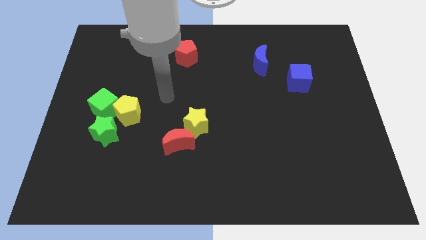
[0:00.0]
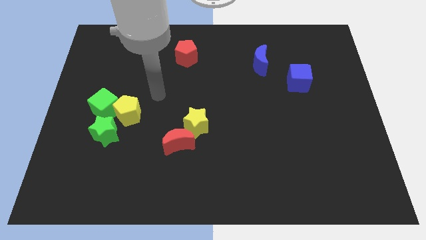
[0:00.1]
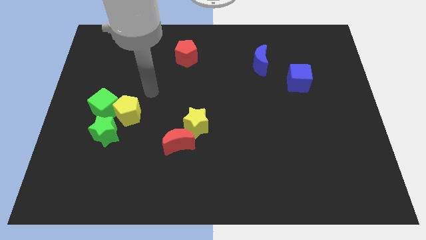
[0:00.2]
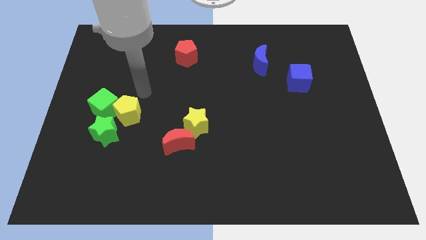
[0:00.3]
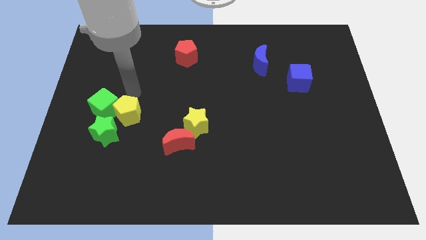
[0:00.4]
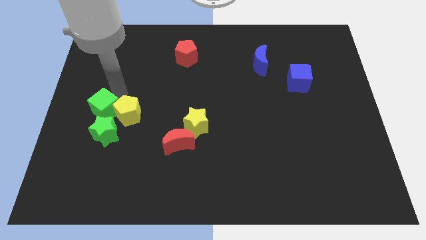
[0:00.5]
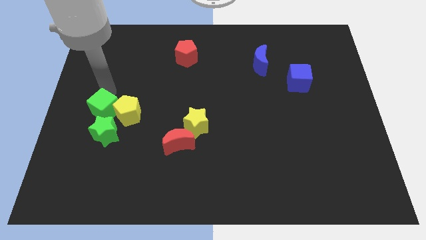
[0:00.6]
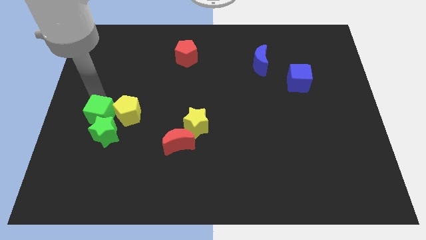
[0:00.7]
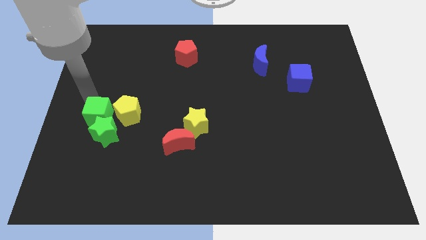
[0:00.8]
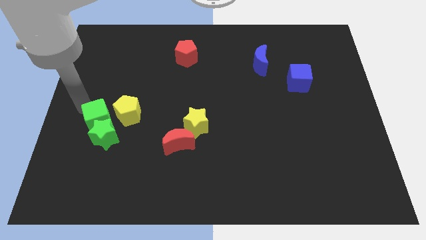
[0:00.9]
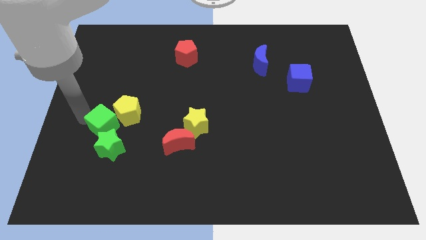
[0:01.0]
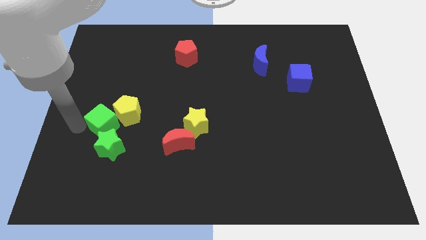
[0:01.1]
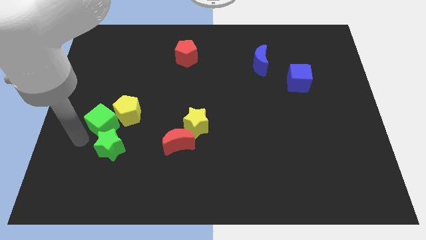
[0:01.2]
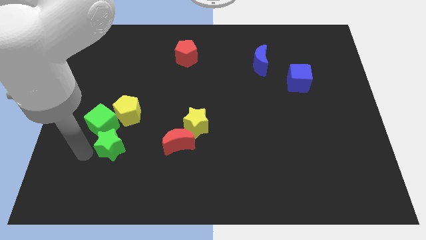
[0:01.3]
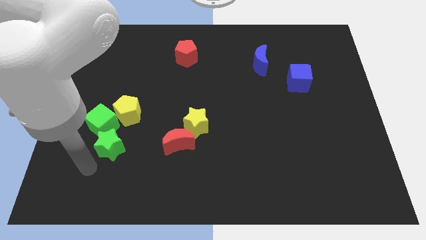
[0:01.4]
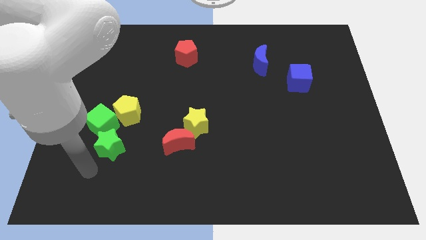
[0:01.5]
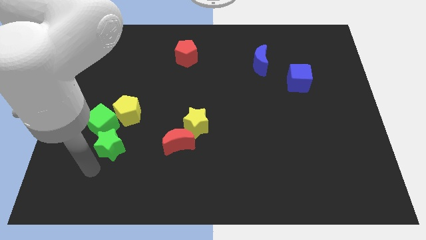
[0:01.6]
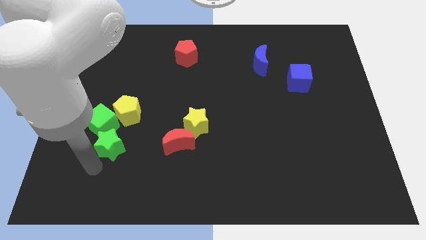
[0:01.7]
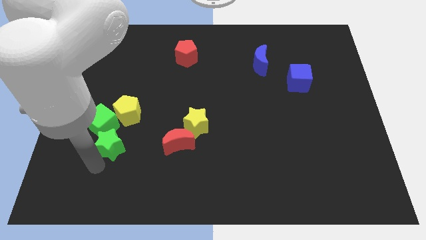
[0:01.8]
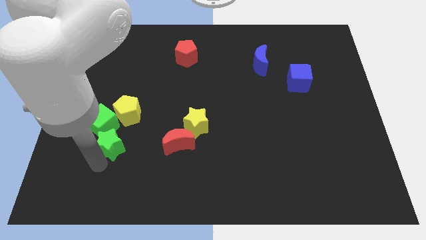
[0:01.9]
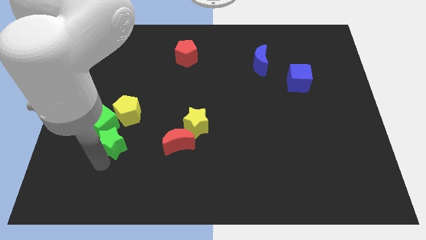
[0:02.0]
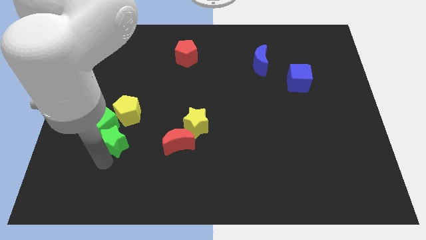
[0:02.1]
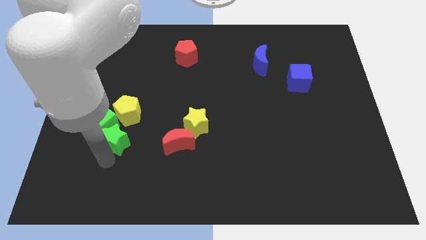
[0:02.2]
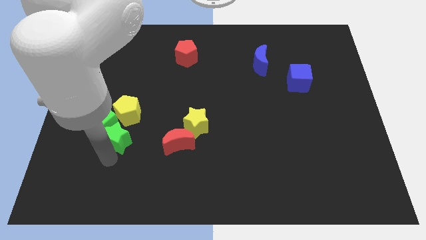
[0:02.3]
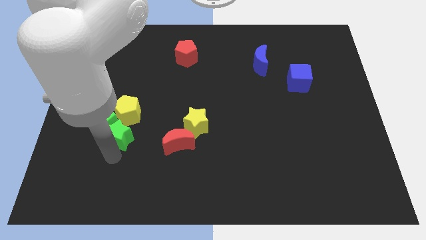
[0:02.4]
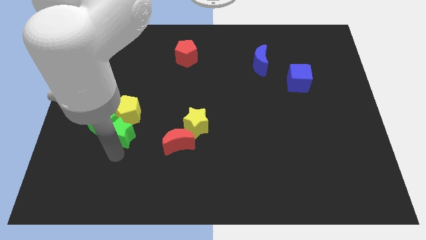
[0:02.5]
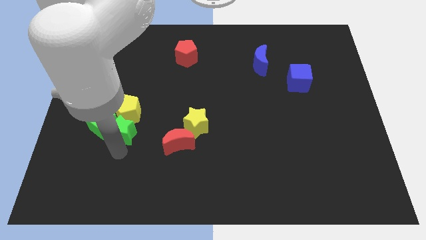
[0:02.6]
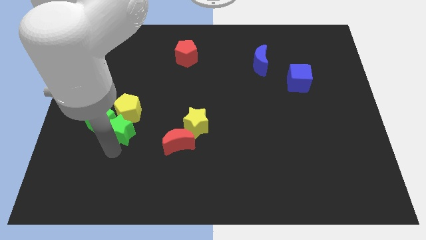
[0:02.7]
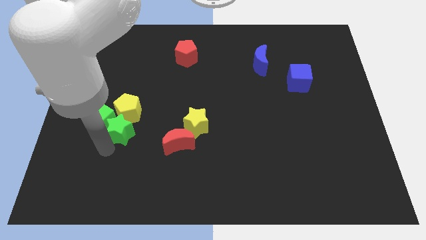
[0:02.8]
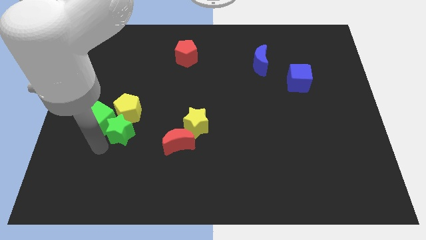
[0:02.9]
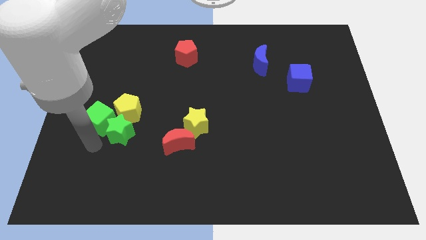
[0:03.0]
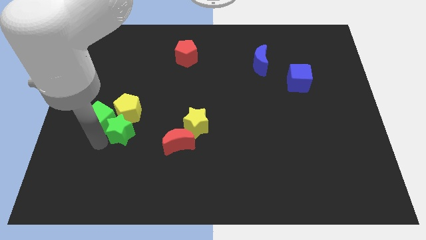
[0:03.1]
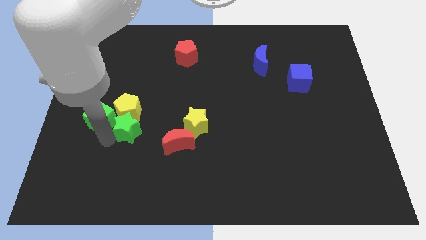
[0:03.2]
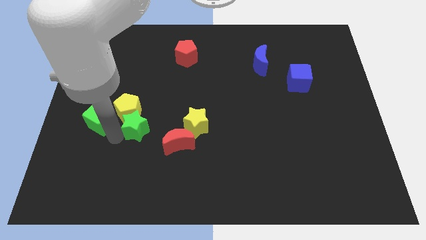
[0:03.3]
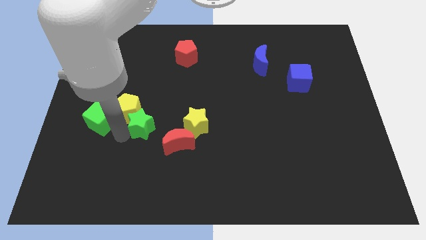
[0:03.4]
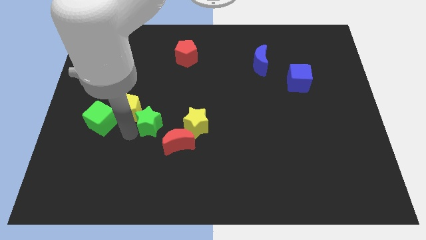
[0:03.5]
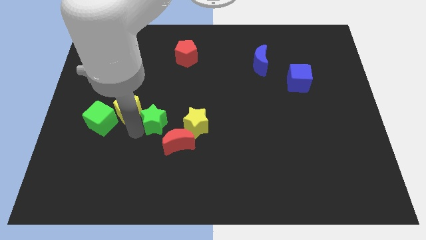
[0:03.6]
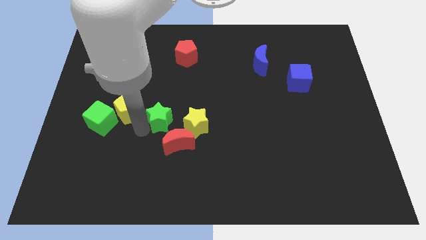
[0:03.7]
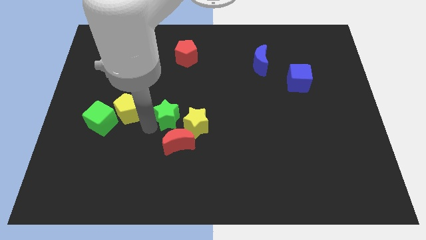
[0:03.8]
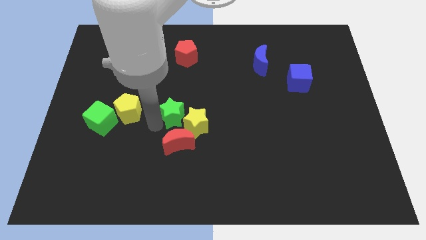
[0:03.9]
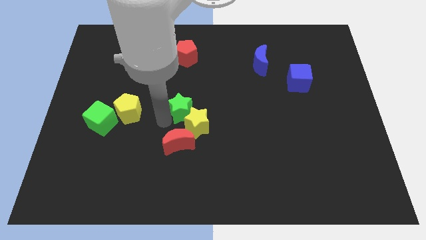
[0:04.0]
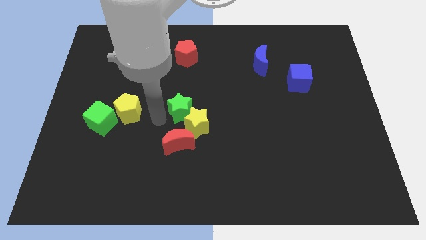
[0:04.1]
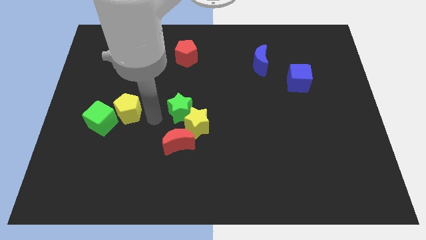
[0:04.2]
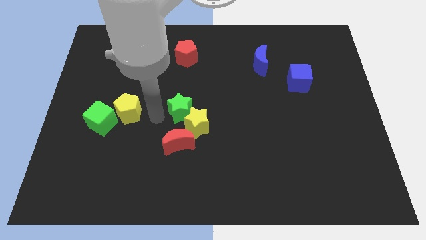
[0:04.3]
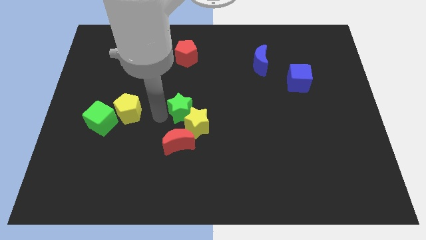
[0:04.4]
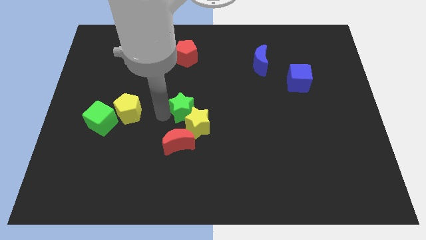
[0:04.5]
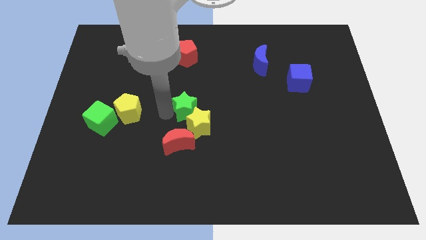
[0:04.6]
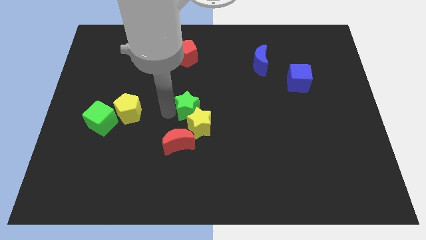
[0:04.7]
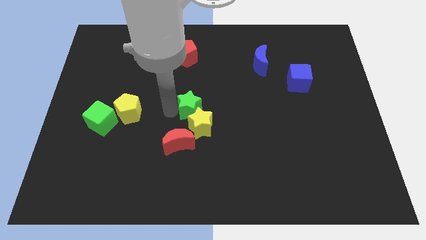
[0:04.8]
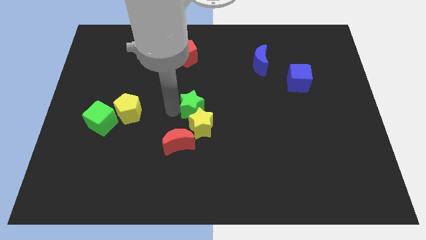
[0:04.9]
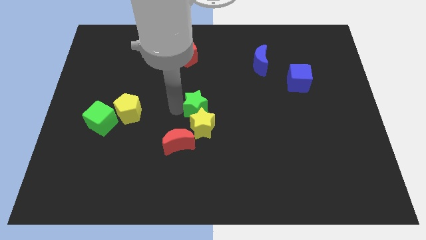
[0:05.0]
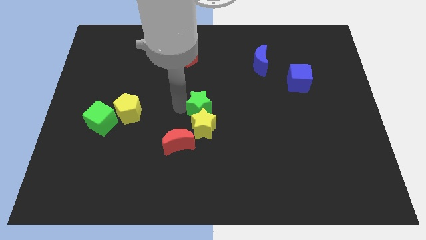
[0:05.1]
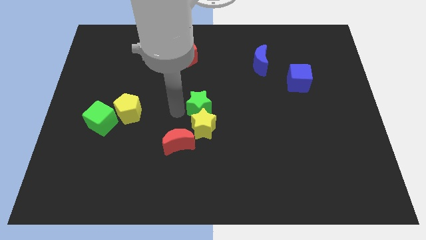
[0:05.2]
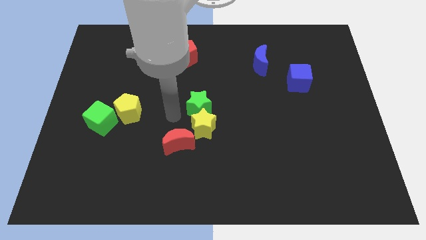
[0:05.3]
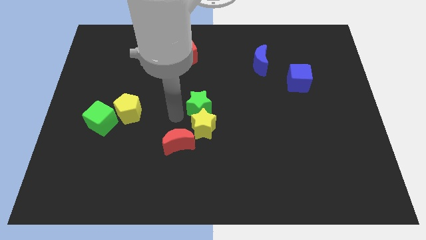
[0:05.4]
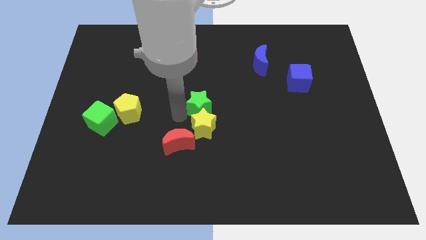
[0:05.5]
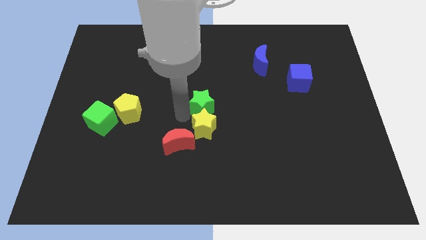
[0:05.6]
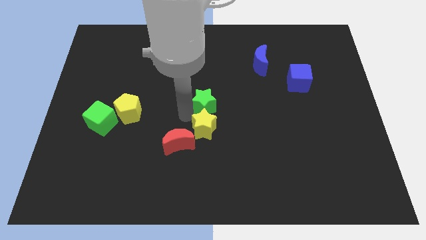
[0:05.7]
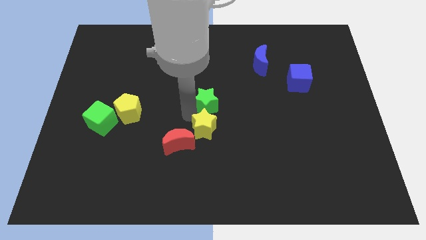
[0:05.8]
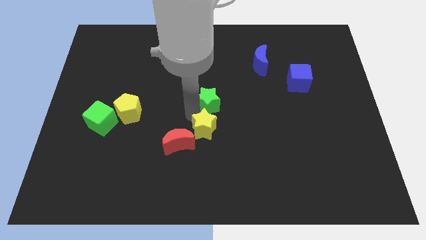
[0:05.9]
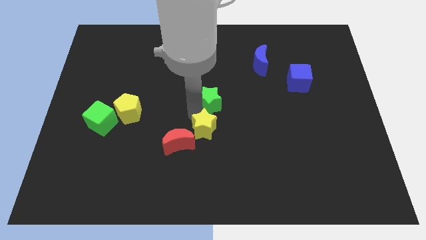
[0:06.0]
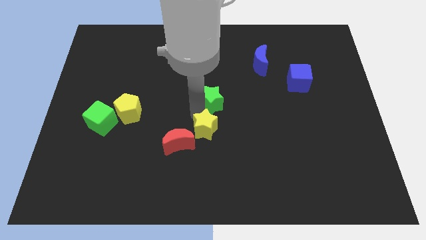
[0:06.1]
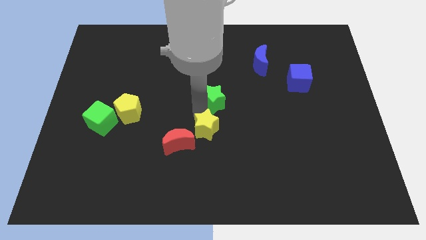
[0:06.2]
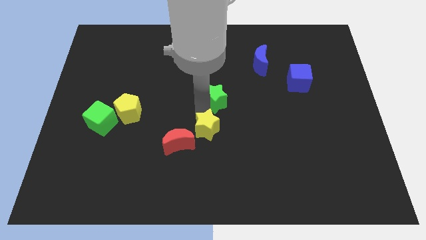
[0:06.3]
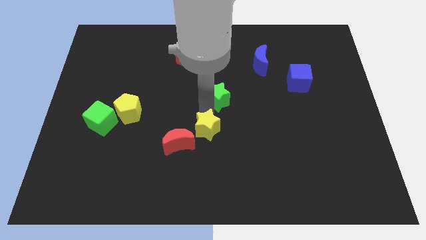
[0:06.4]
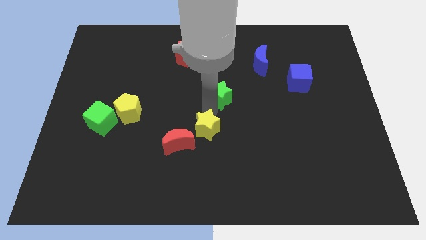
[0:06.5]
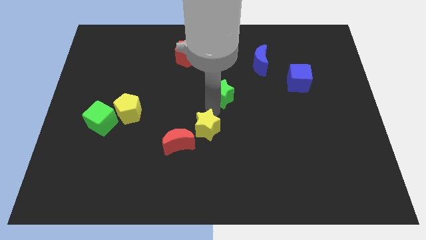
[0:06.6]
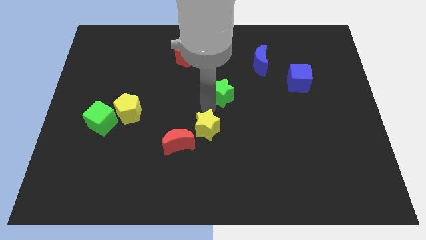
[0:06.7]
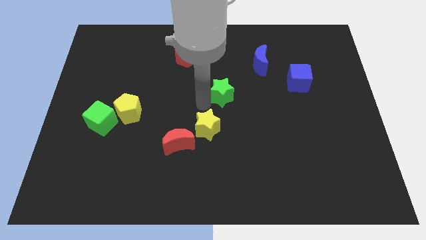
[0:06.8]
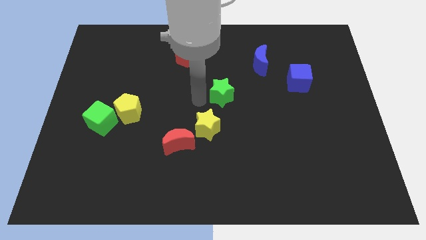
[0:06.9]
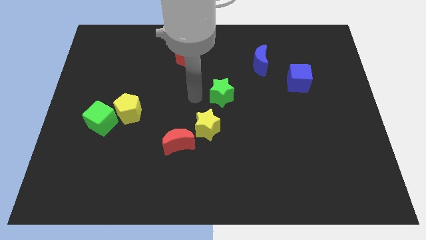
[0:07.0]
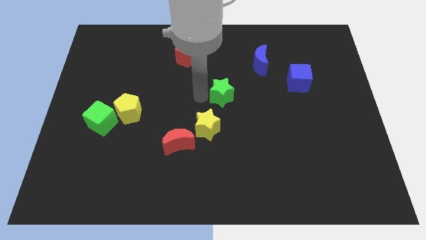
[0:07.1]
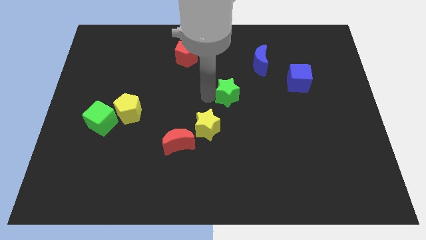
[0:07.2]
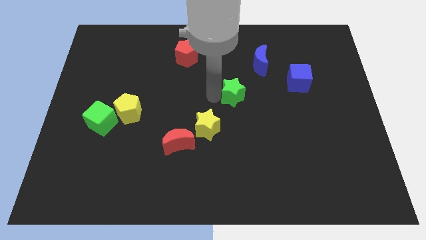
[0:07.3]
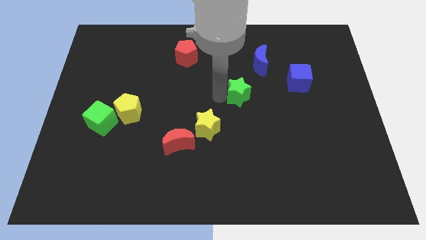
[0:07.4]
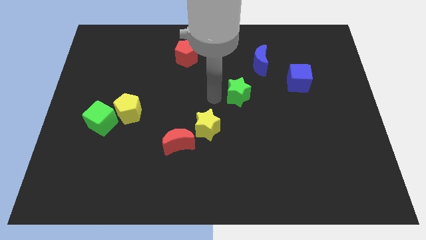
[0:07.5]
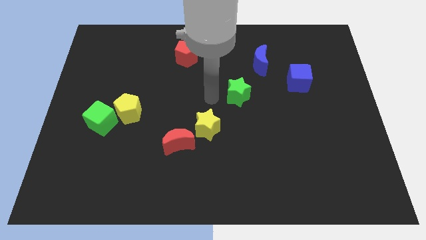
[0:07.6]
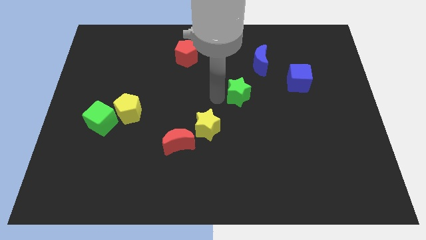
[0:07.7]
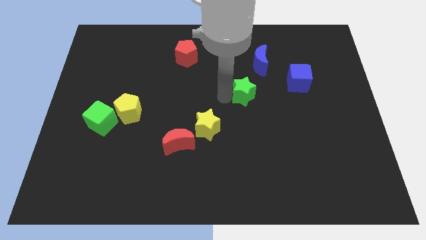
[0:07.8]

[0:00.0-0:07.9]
slide the green star below the blue moon

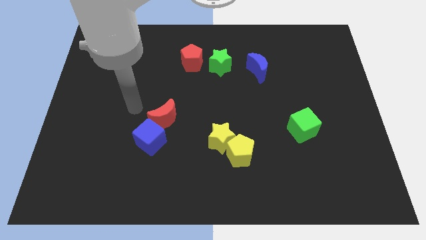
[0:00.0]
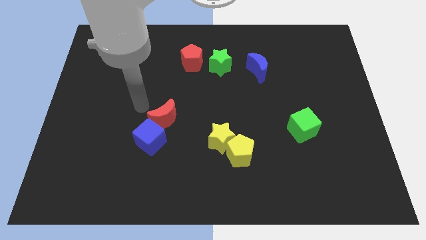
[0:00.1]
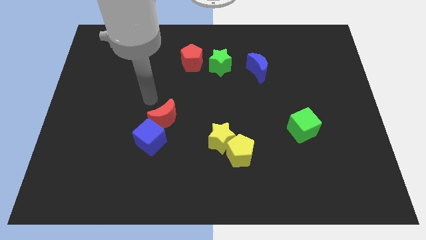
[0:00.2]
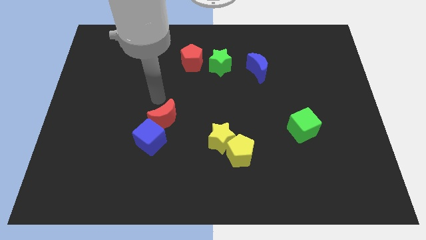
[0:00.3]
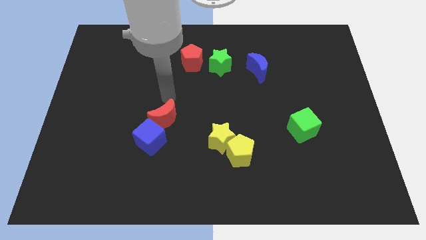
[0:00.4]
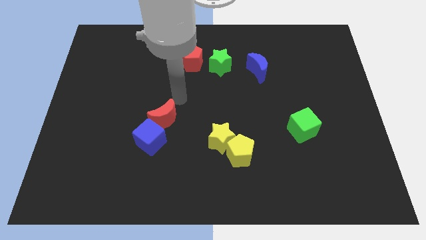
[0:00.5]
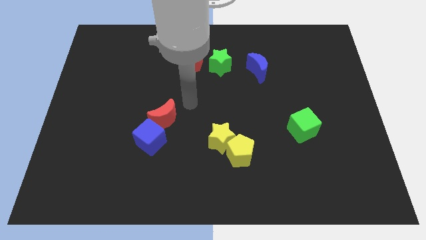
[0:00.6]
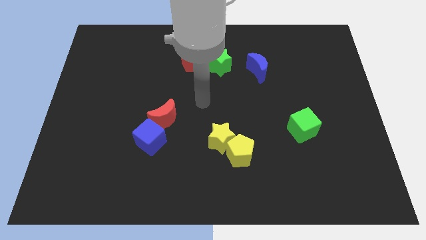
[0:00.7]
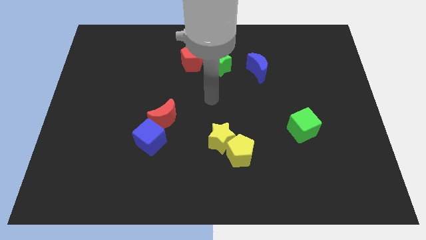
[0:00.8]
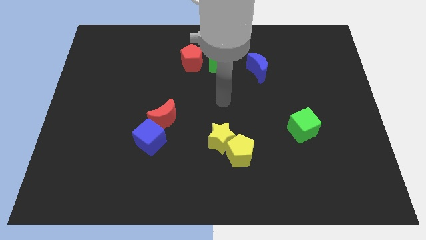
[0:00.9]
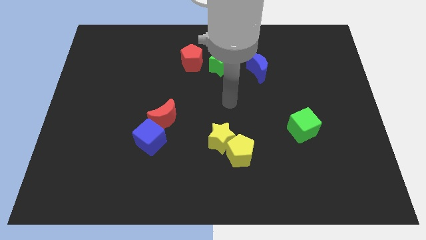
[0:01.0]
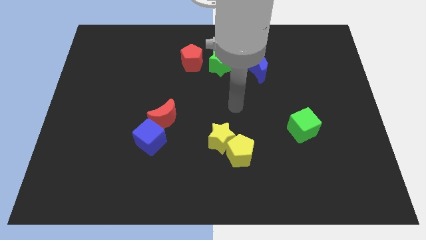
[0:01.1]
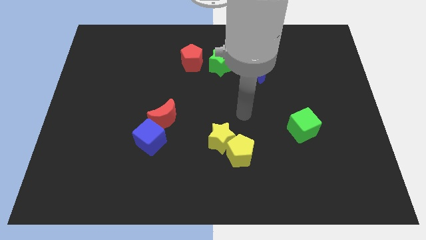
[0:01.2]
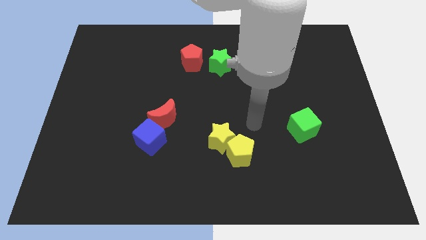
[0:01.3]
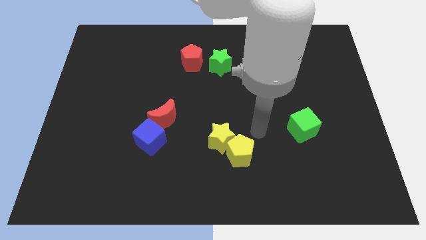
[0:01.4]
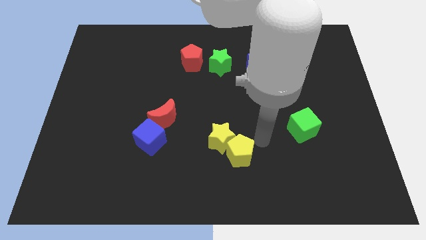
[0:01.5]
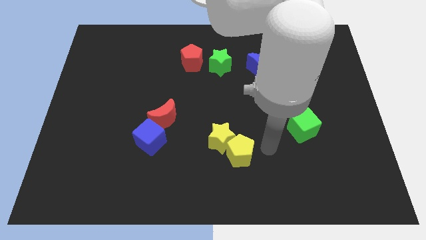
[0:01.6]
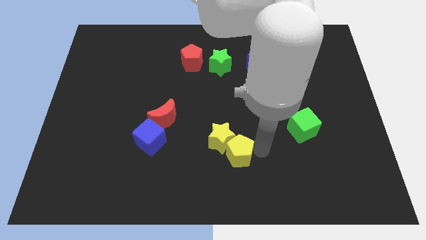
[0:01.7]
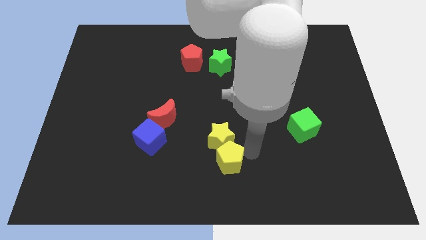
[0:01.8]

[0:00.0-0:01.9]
put the yellow pentagon to the bottom left of the yellow star
